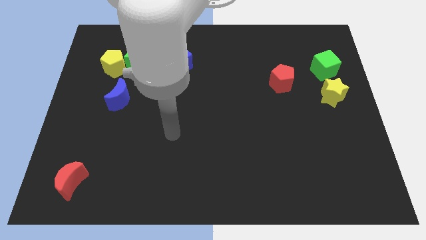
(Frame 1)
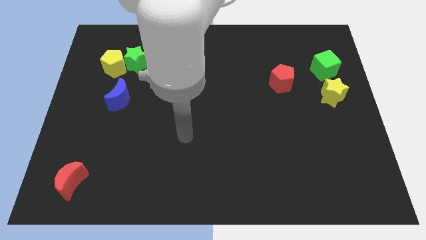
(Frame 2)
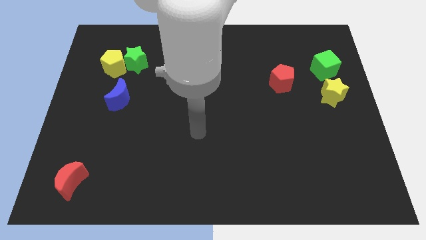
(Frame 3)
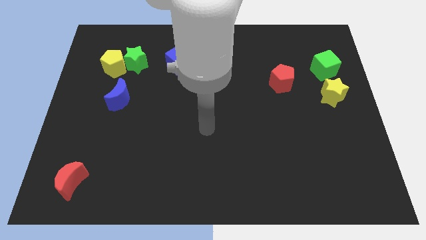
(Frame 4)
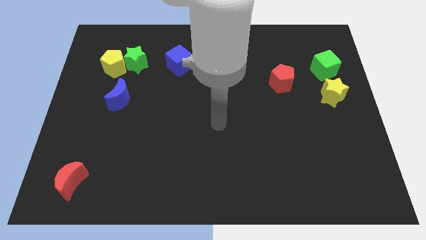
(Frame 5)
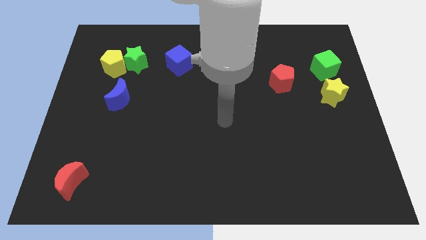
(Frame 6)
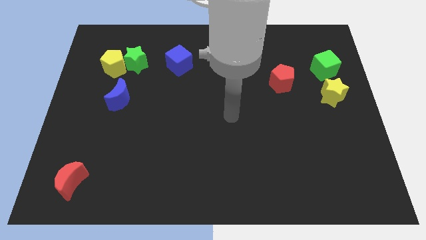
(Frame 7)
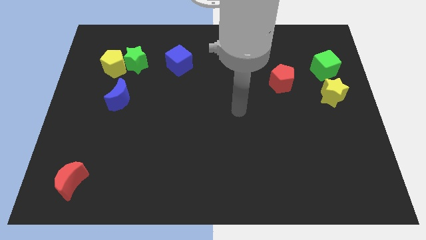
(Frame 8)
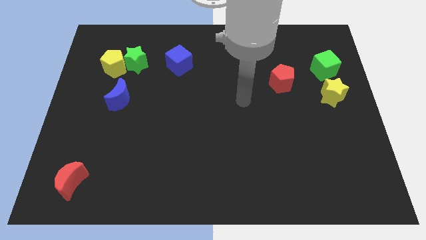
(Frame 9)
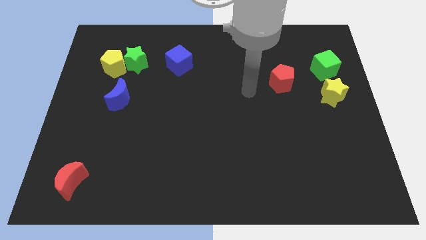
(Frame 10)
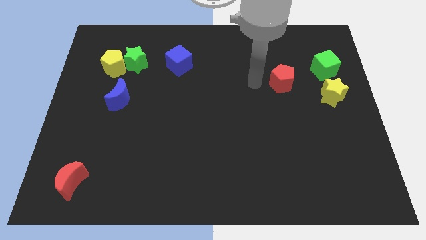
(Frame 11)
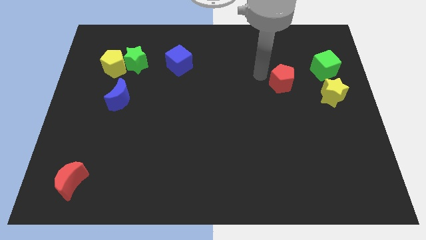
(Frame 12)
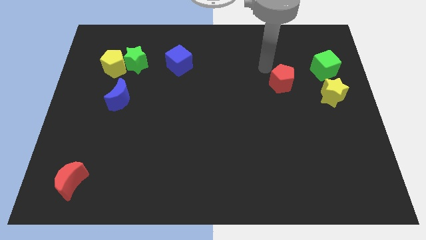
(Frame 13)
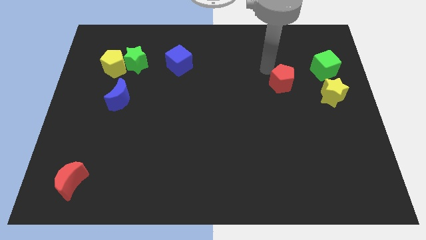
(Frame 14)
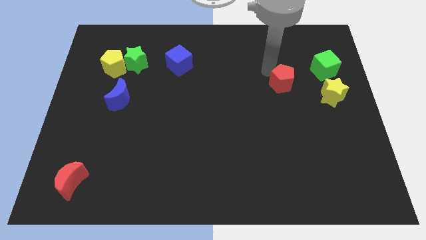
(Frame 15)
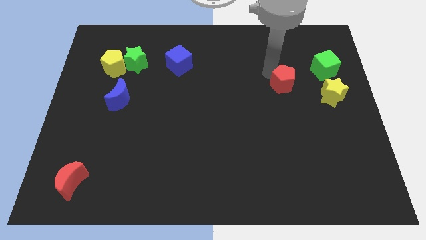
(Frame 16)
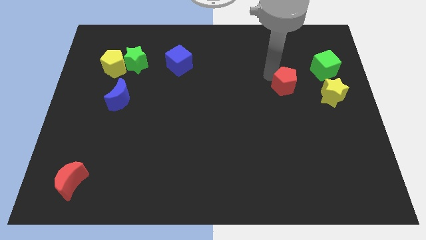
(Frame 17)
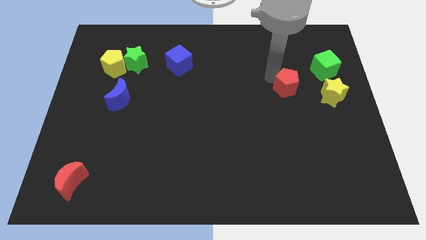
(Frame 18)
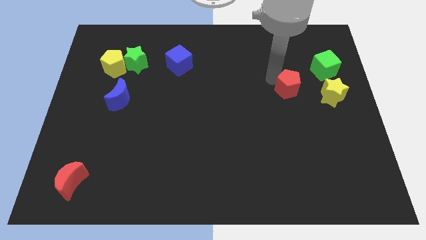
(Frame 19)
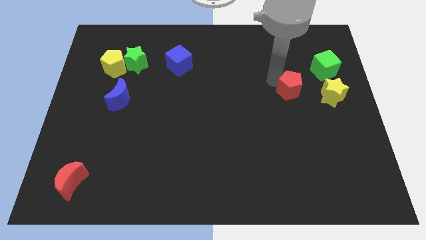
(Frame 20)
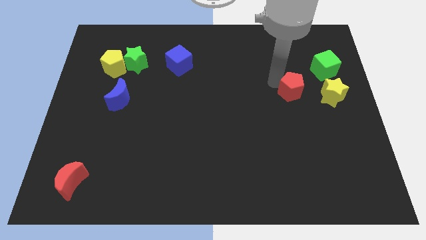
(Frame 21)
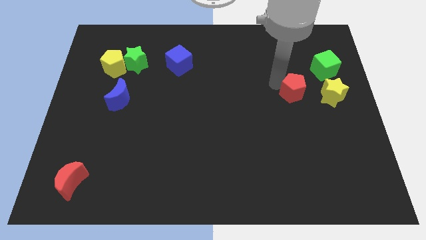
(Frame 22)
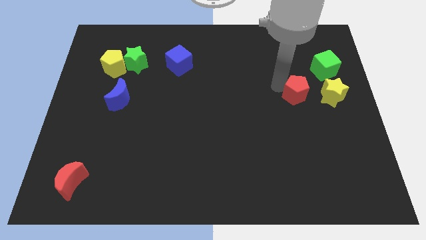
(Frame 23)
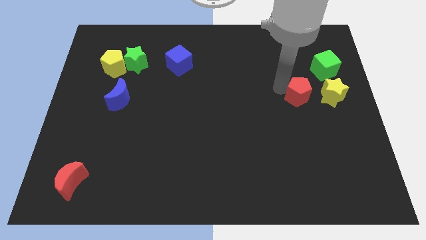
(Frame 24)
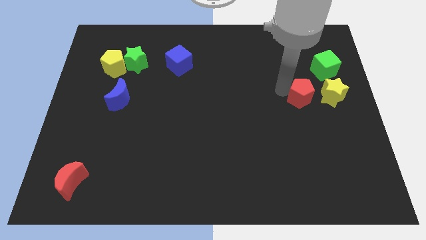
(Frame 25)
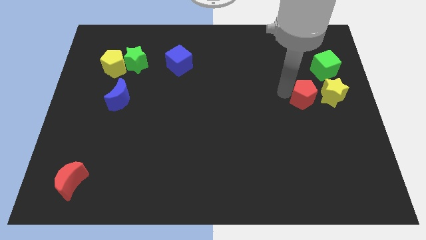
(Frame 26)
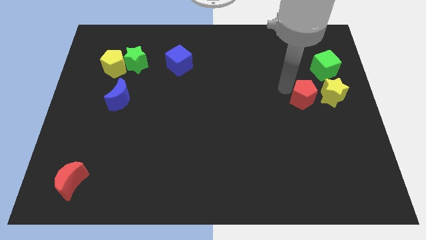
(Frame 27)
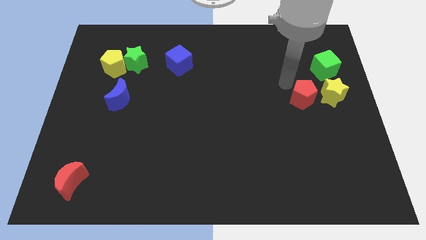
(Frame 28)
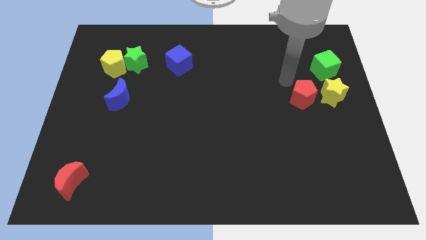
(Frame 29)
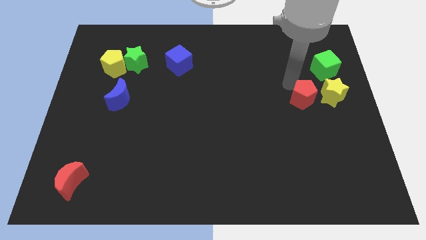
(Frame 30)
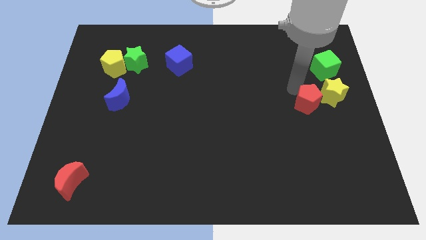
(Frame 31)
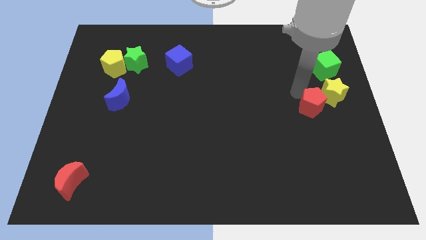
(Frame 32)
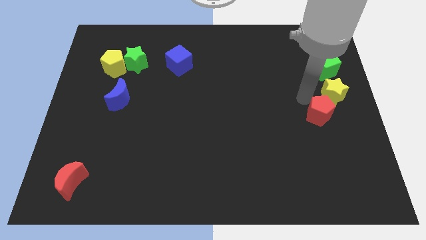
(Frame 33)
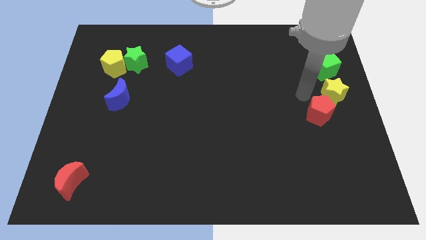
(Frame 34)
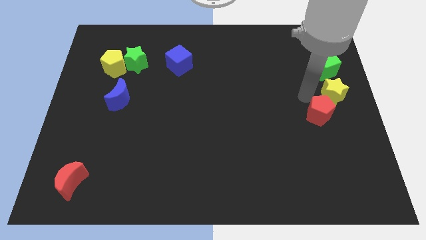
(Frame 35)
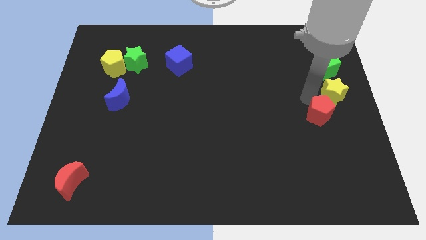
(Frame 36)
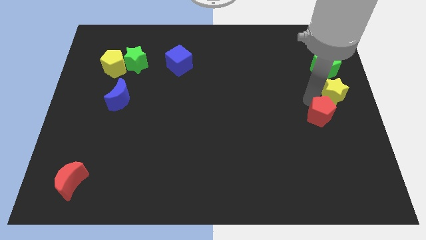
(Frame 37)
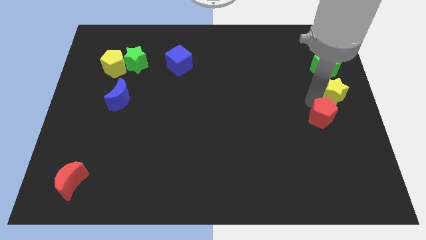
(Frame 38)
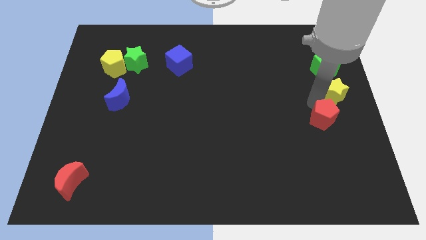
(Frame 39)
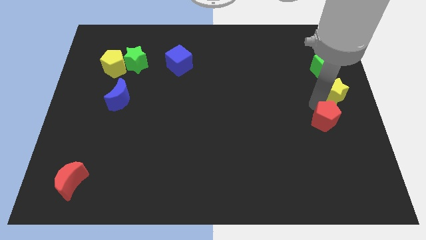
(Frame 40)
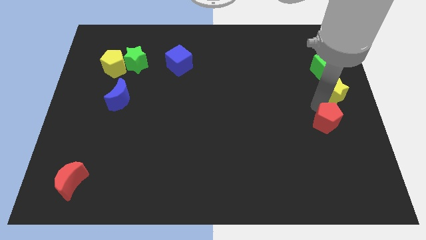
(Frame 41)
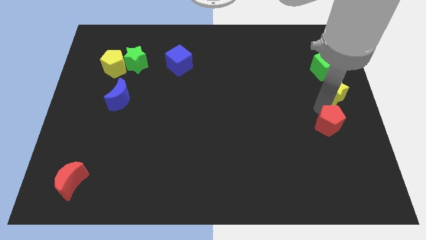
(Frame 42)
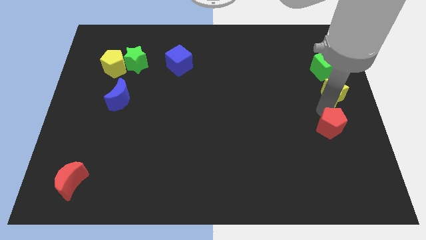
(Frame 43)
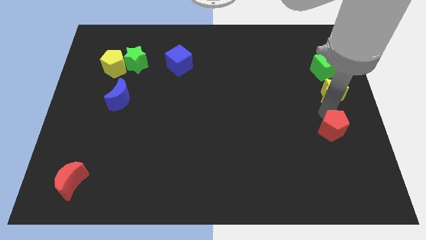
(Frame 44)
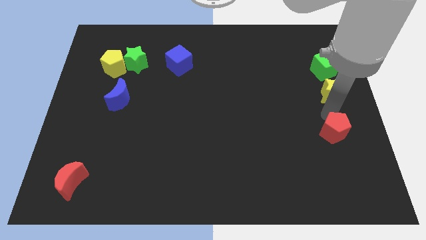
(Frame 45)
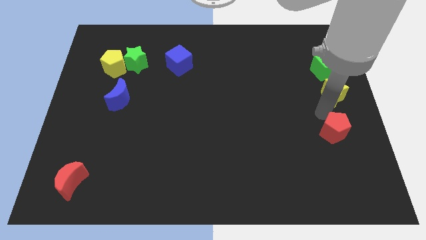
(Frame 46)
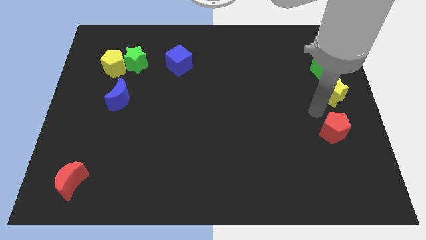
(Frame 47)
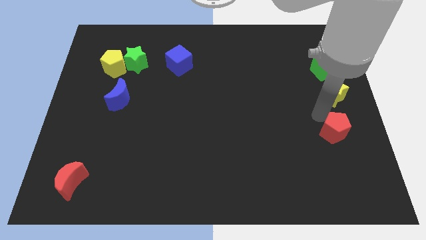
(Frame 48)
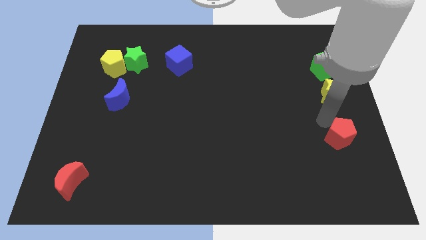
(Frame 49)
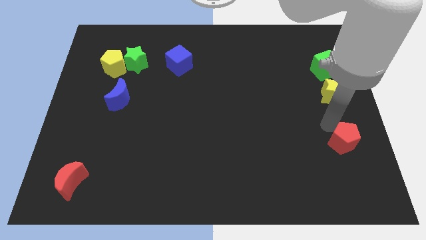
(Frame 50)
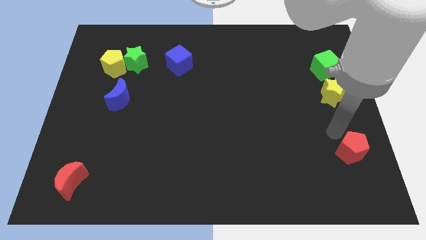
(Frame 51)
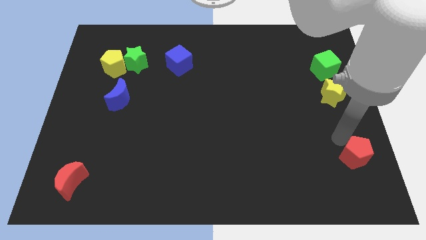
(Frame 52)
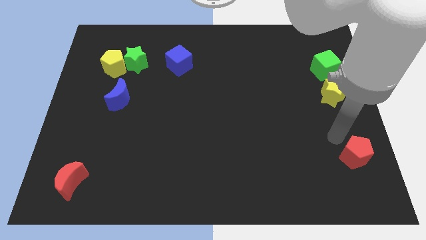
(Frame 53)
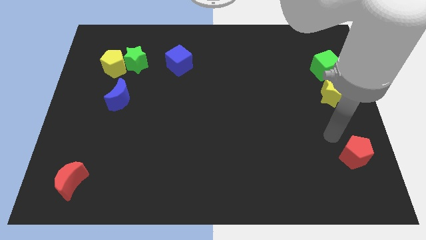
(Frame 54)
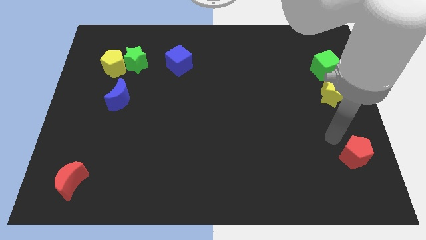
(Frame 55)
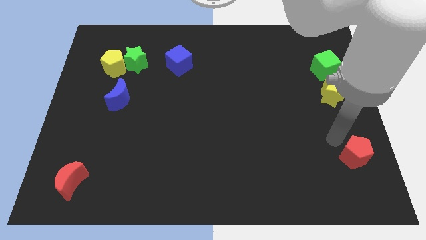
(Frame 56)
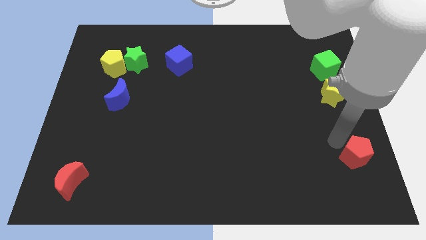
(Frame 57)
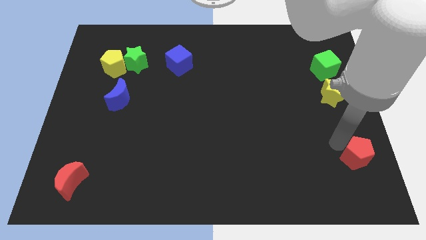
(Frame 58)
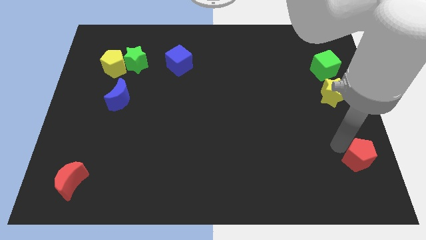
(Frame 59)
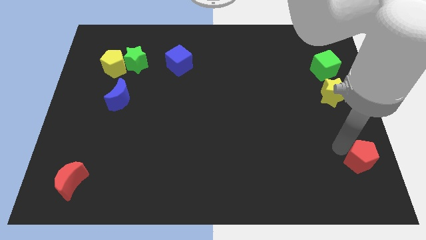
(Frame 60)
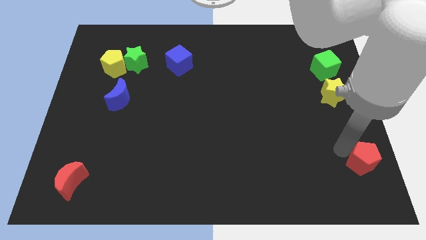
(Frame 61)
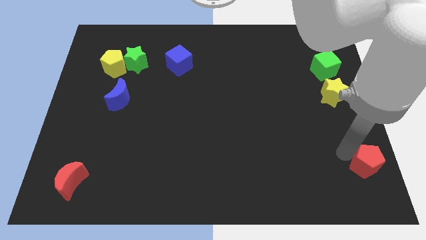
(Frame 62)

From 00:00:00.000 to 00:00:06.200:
slide the red pentagon to the bottom right corner
